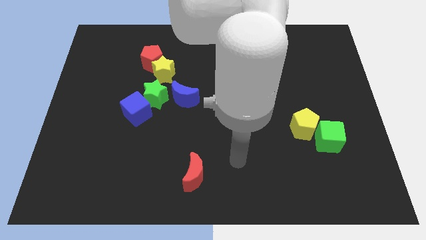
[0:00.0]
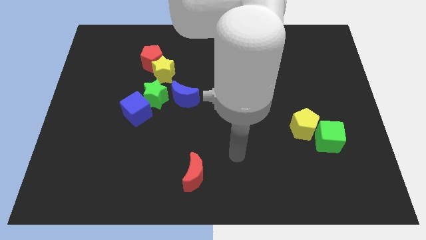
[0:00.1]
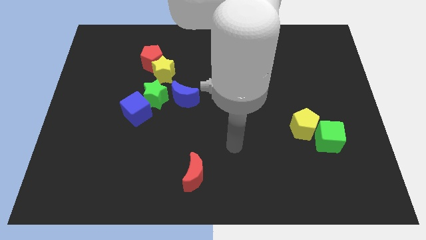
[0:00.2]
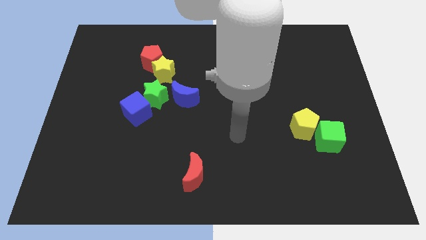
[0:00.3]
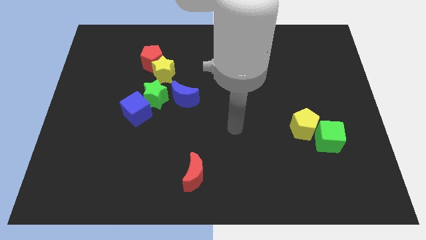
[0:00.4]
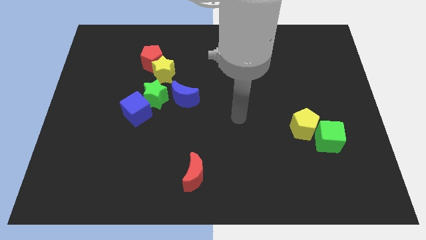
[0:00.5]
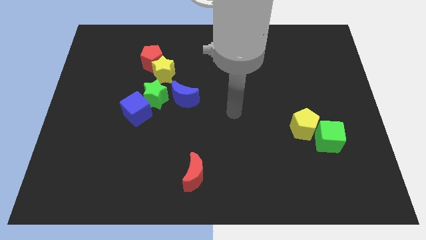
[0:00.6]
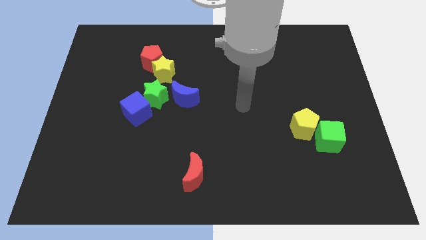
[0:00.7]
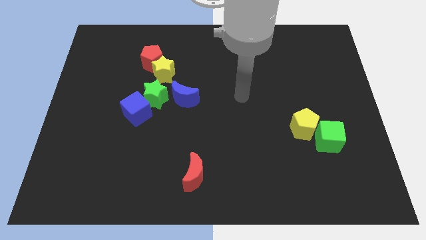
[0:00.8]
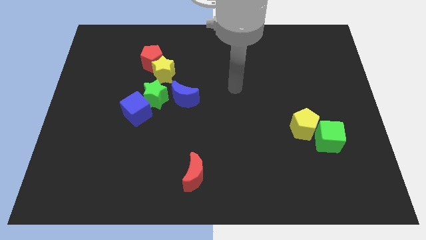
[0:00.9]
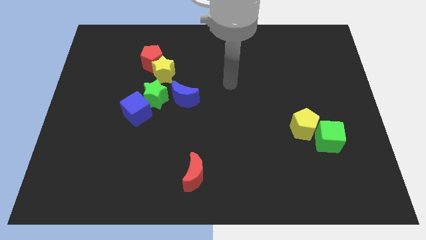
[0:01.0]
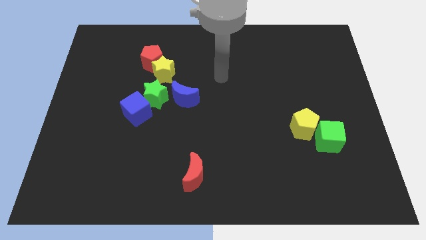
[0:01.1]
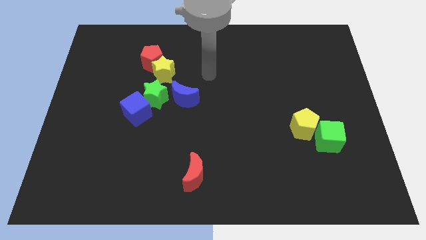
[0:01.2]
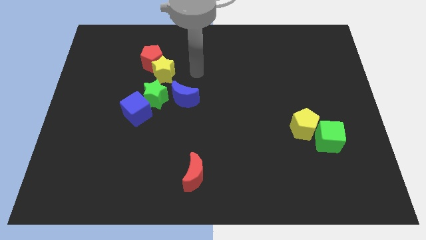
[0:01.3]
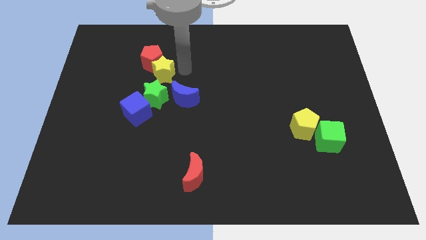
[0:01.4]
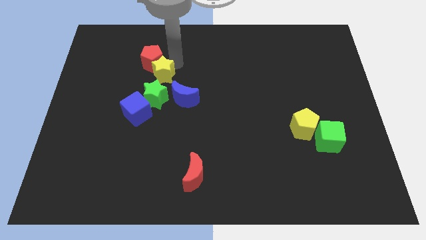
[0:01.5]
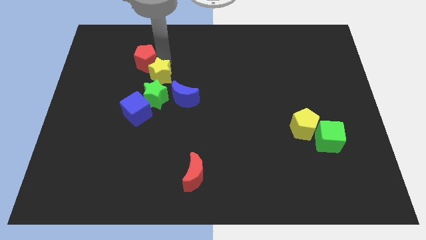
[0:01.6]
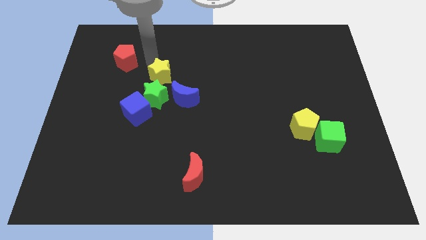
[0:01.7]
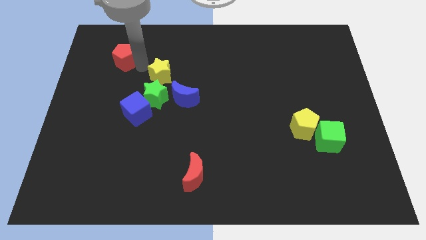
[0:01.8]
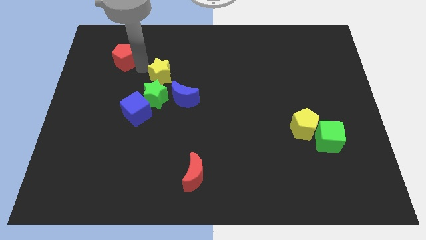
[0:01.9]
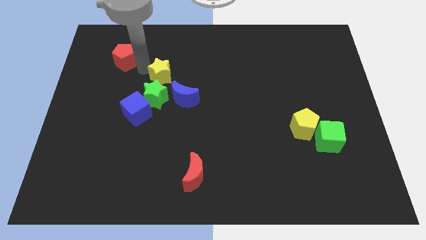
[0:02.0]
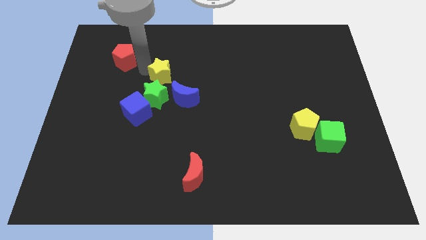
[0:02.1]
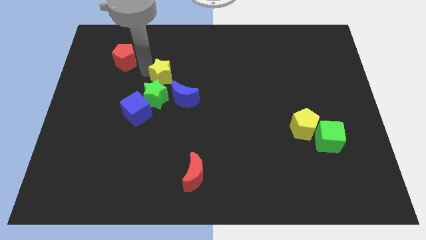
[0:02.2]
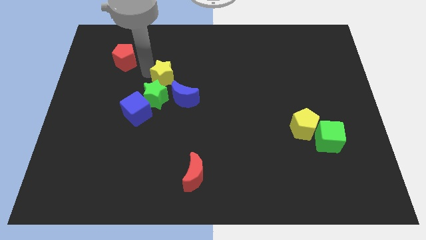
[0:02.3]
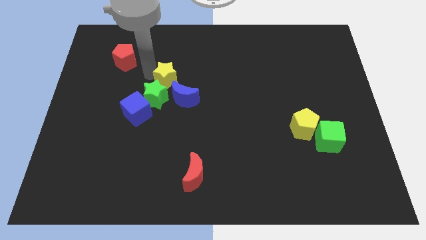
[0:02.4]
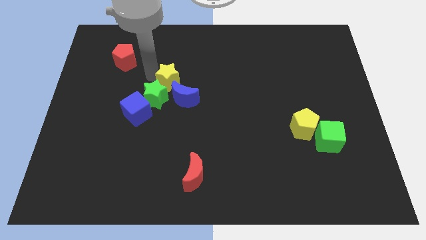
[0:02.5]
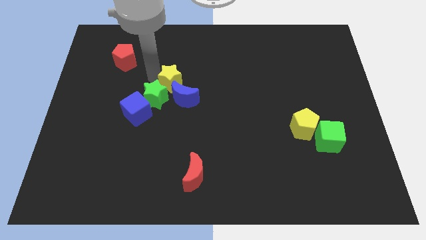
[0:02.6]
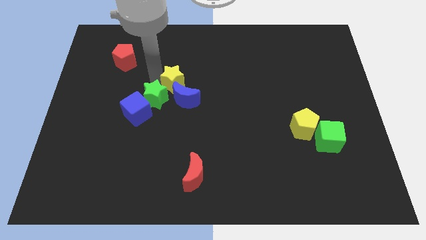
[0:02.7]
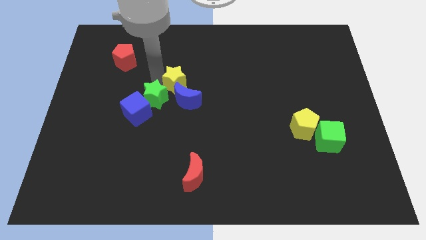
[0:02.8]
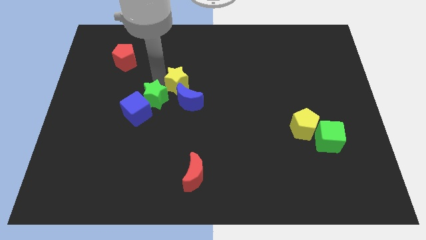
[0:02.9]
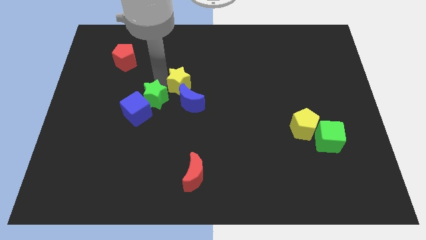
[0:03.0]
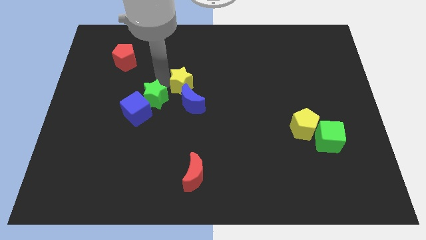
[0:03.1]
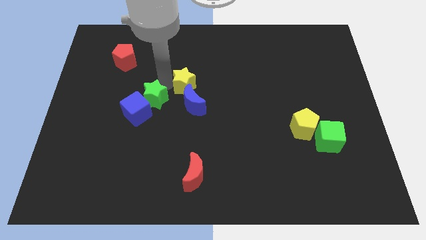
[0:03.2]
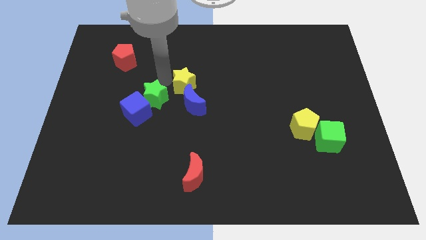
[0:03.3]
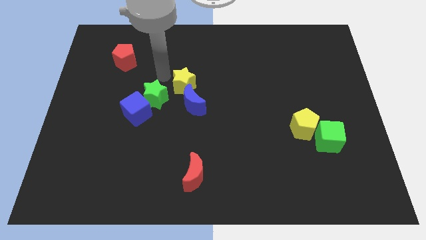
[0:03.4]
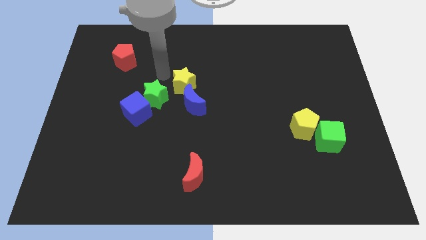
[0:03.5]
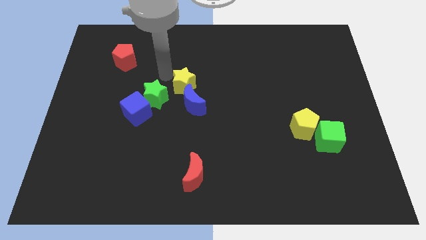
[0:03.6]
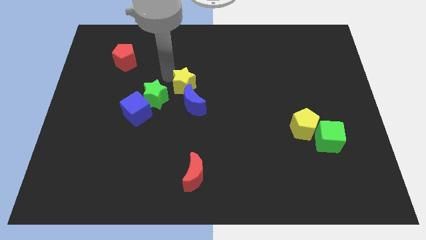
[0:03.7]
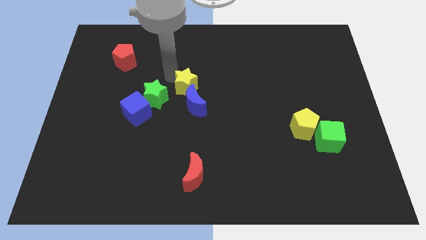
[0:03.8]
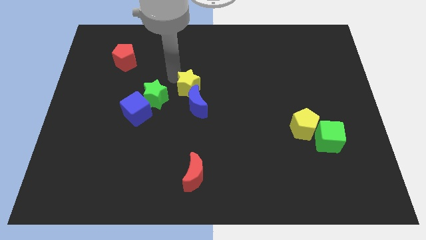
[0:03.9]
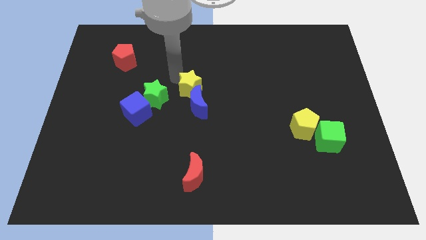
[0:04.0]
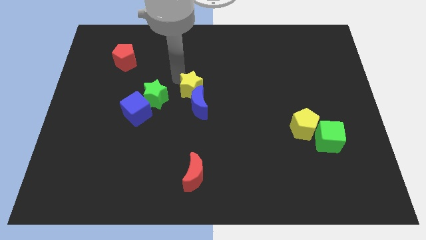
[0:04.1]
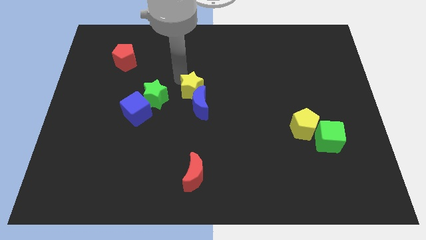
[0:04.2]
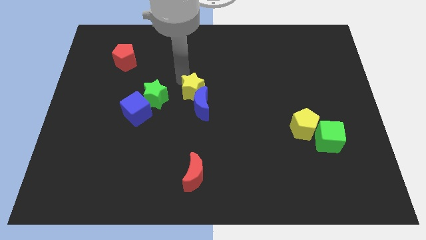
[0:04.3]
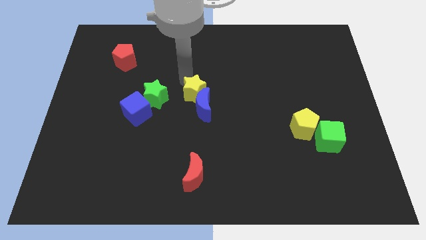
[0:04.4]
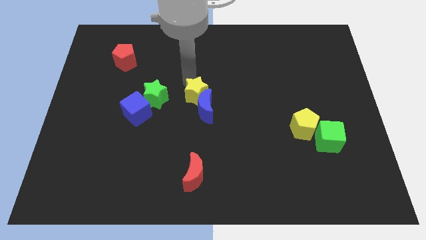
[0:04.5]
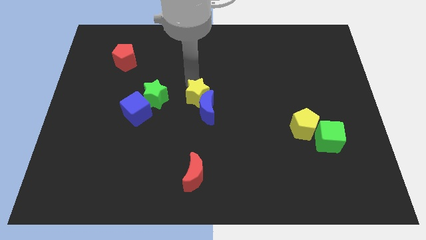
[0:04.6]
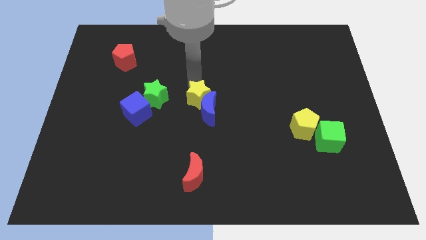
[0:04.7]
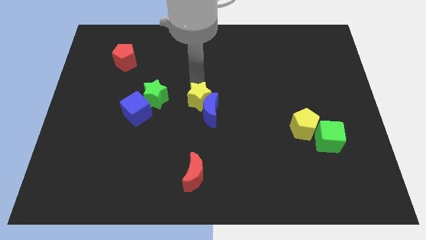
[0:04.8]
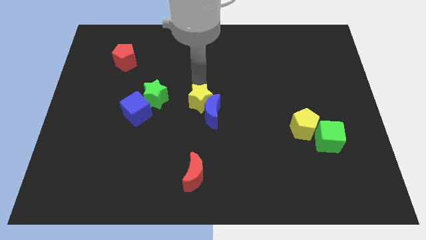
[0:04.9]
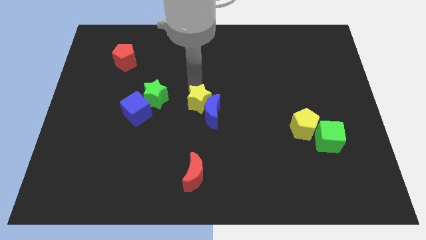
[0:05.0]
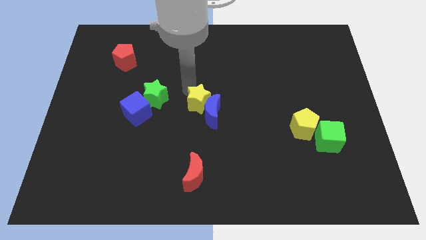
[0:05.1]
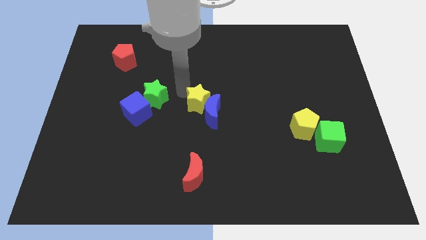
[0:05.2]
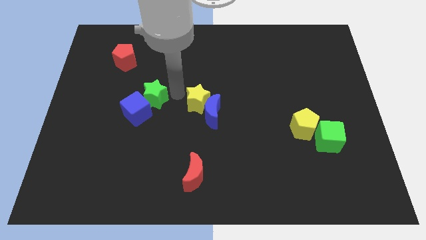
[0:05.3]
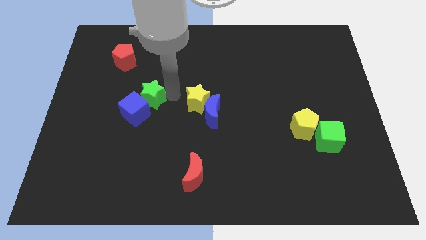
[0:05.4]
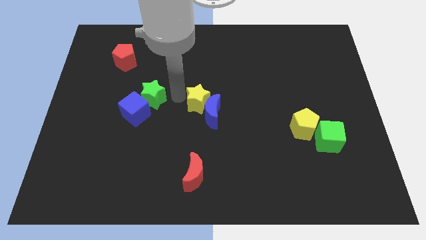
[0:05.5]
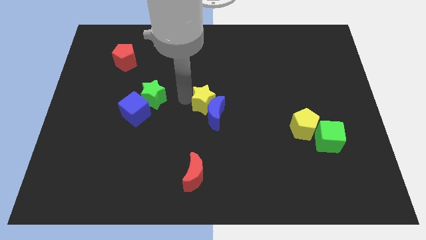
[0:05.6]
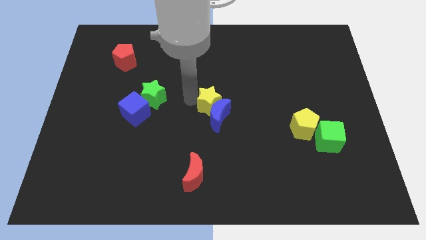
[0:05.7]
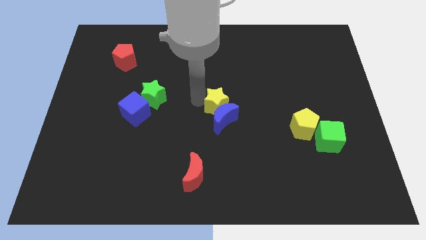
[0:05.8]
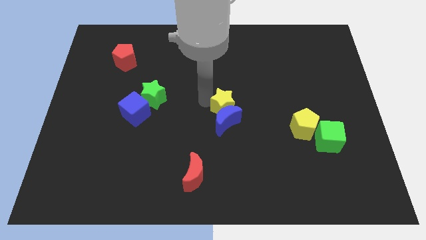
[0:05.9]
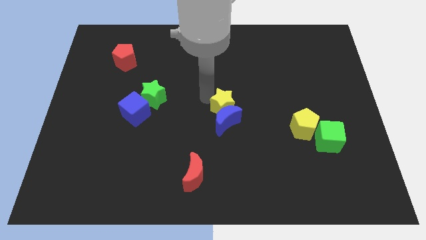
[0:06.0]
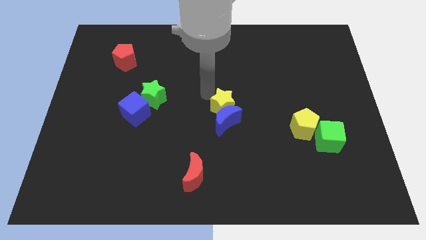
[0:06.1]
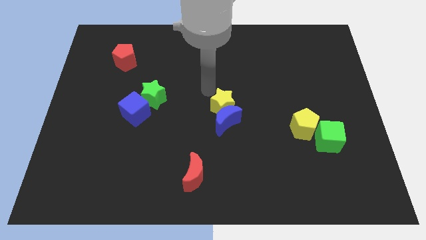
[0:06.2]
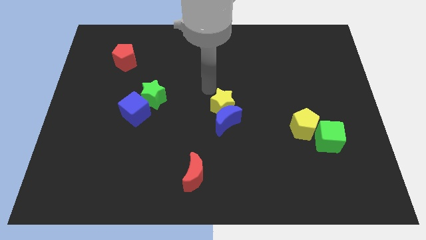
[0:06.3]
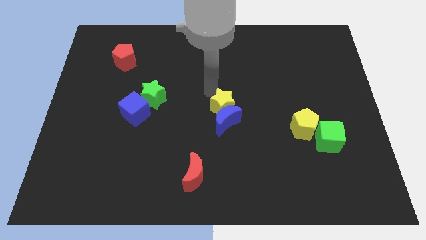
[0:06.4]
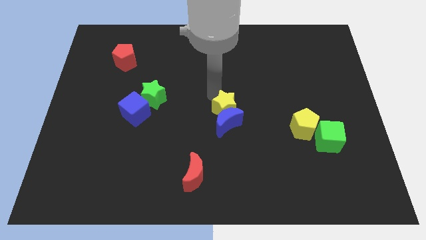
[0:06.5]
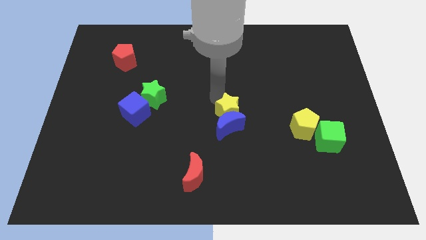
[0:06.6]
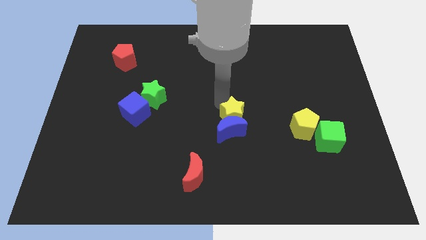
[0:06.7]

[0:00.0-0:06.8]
slide the yellow star down and to the right

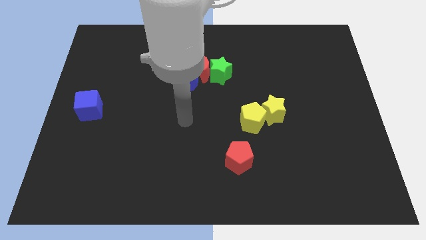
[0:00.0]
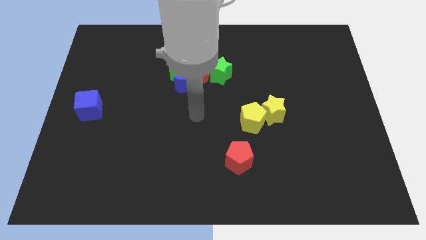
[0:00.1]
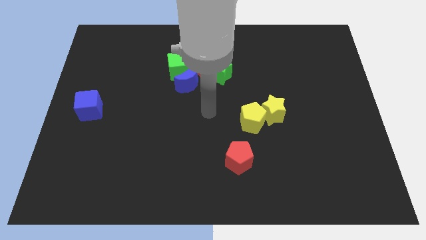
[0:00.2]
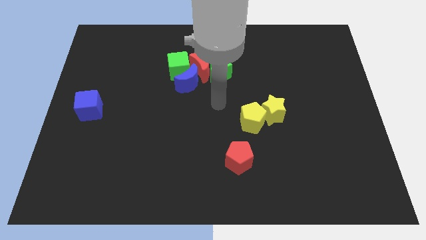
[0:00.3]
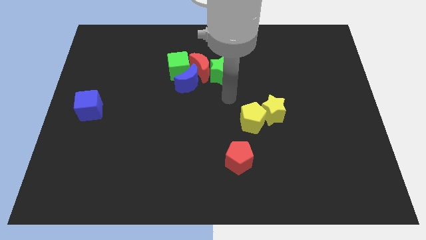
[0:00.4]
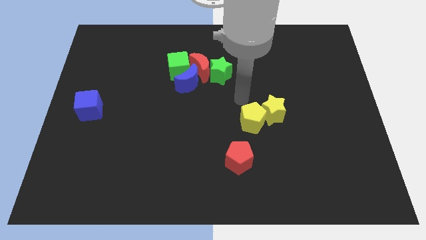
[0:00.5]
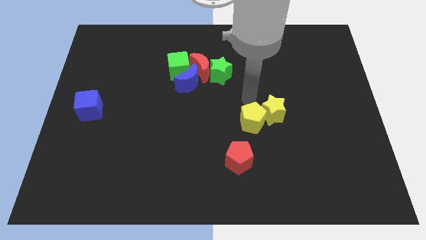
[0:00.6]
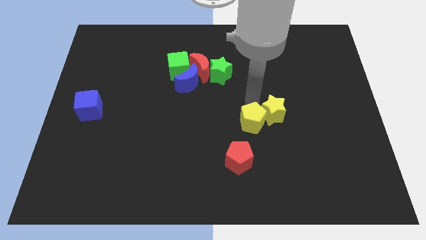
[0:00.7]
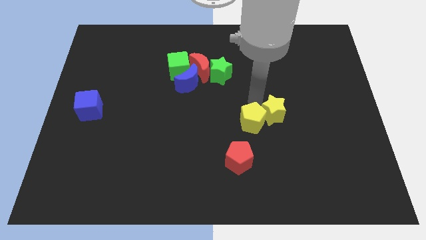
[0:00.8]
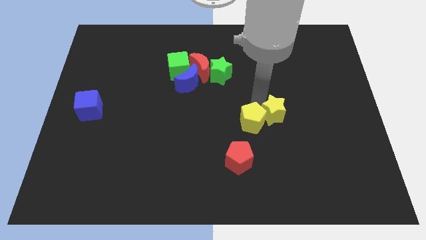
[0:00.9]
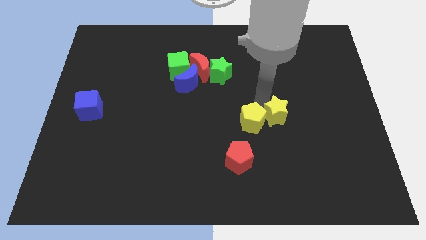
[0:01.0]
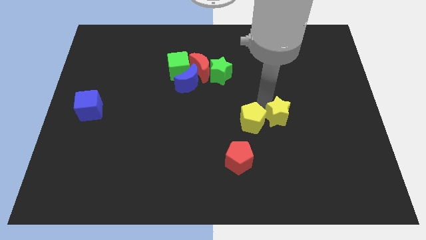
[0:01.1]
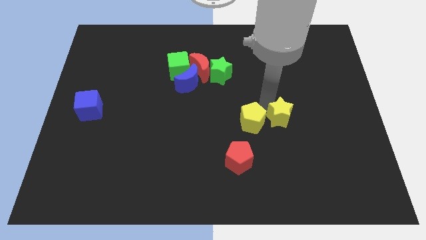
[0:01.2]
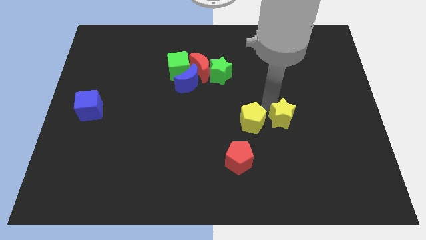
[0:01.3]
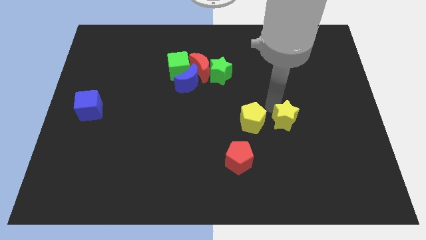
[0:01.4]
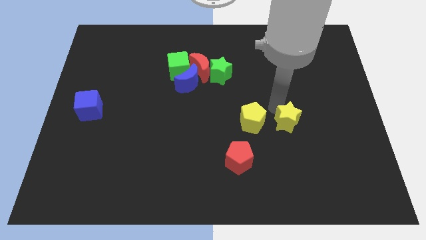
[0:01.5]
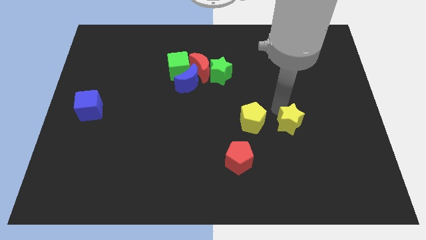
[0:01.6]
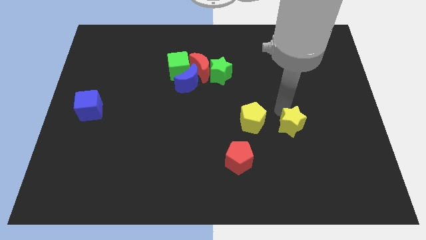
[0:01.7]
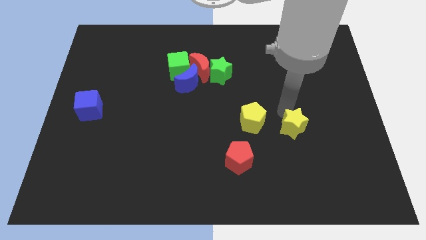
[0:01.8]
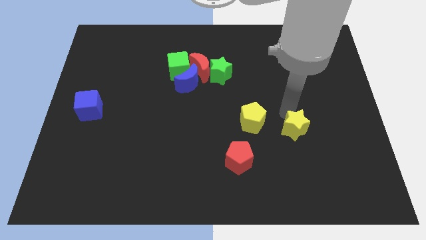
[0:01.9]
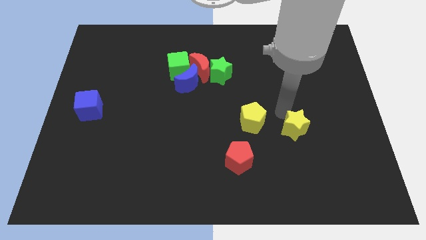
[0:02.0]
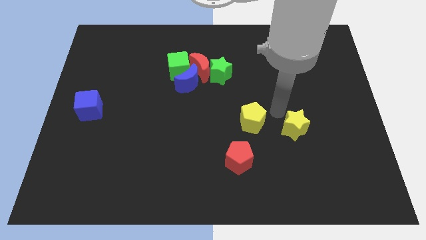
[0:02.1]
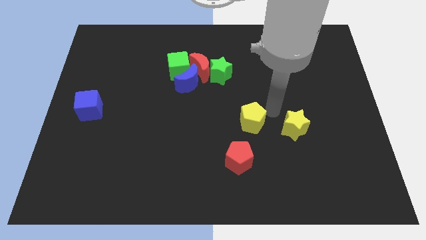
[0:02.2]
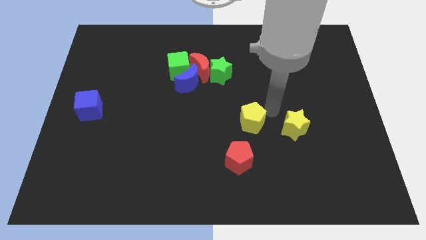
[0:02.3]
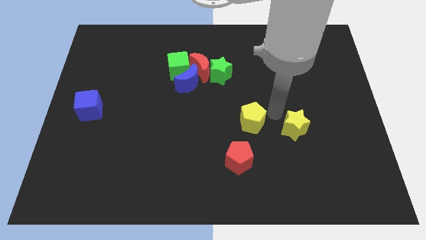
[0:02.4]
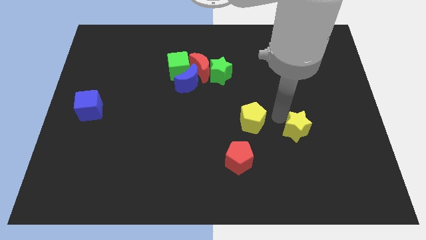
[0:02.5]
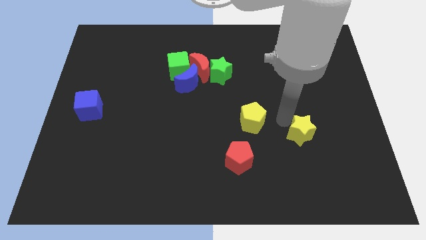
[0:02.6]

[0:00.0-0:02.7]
slightly move the yellow star downwards and right diagonally
